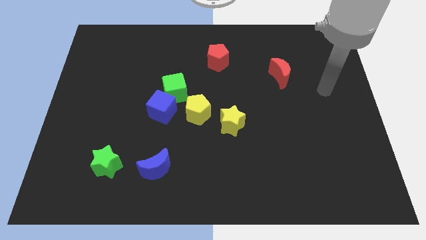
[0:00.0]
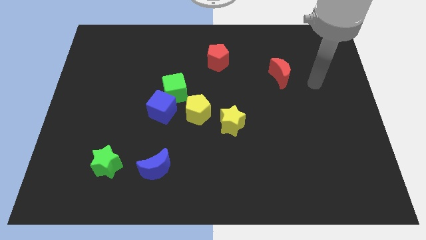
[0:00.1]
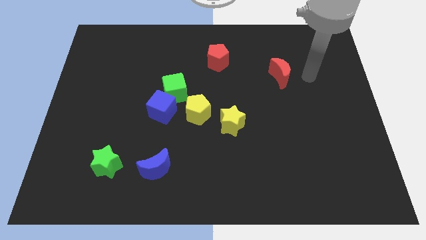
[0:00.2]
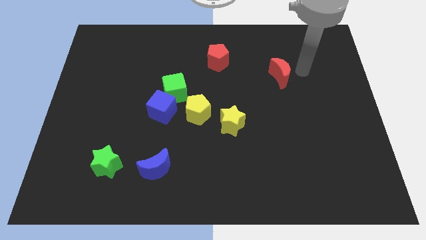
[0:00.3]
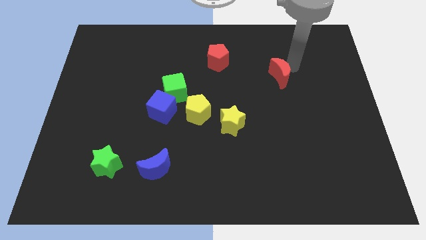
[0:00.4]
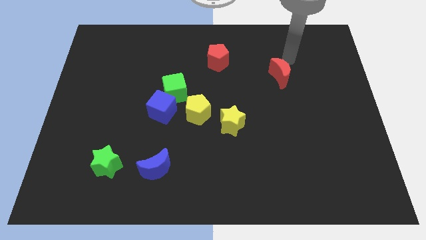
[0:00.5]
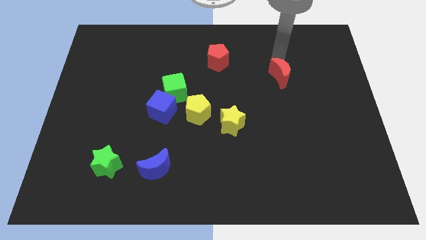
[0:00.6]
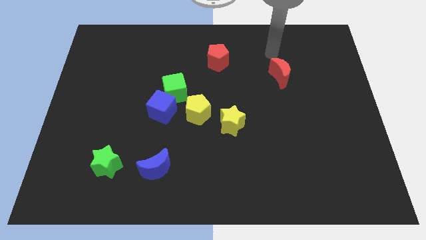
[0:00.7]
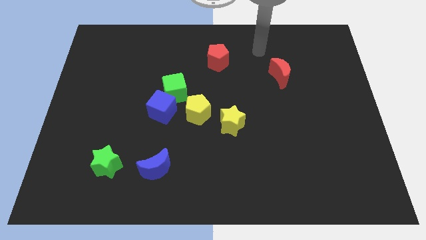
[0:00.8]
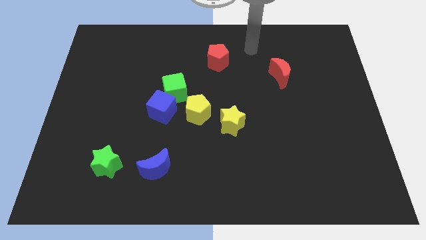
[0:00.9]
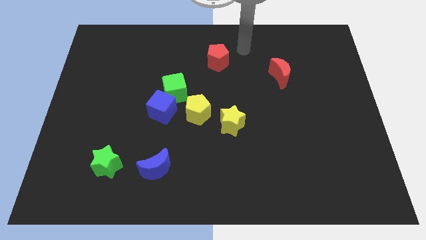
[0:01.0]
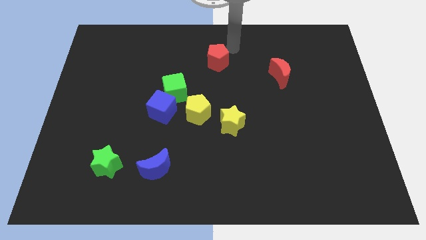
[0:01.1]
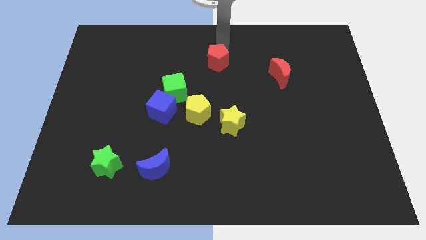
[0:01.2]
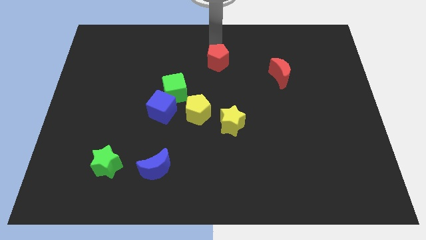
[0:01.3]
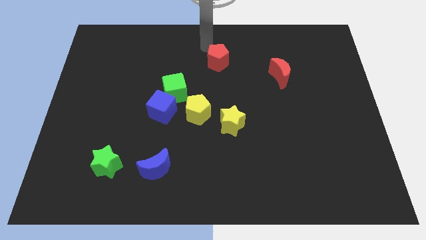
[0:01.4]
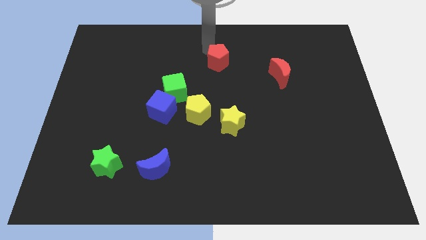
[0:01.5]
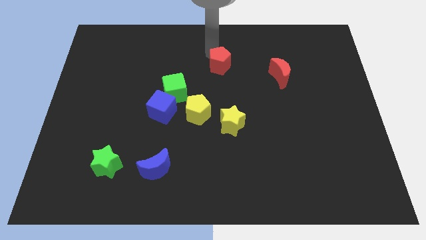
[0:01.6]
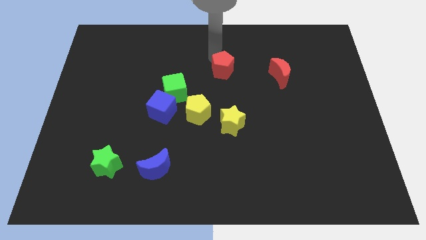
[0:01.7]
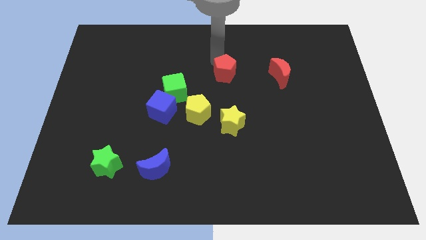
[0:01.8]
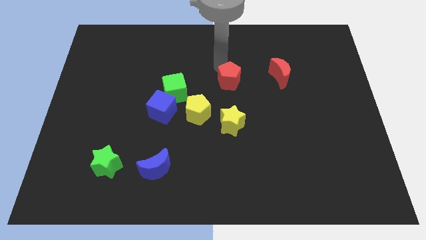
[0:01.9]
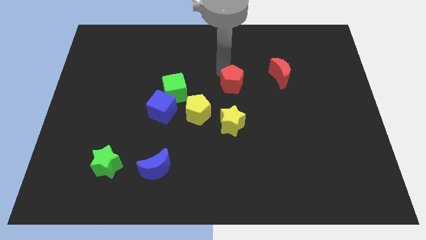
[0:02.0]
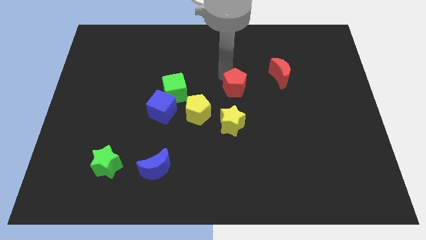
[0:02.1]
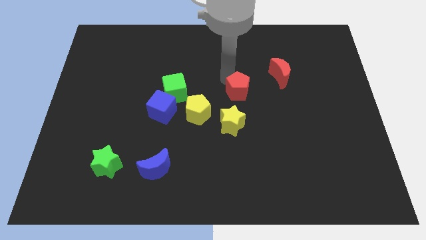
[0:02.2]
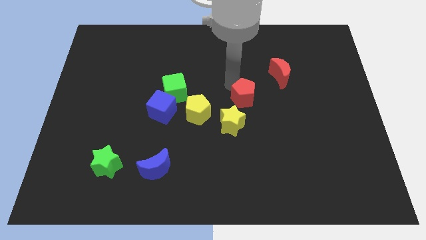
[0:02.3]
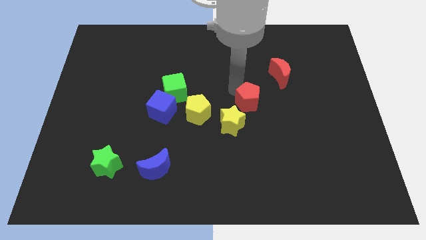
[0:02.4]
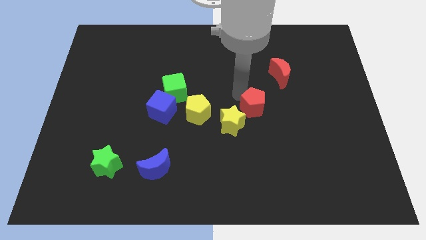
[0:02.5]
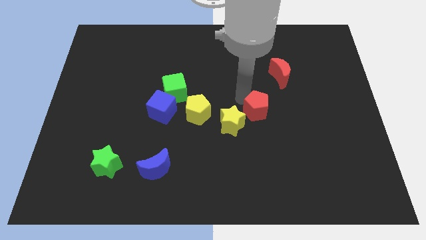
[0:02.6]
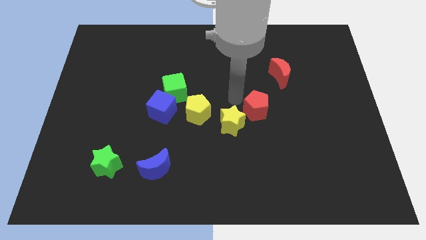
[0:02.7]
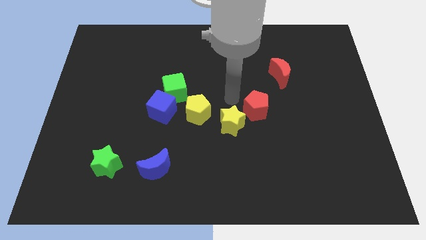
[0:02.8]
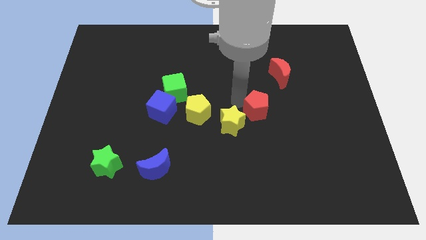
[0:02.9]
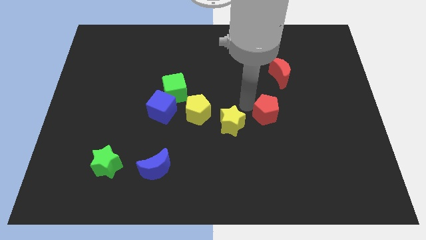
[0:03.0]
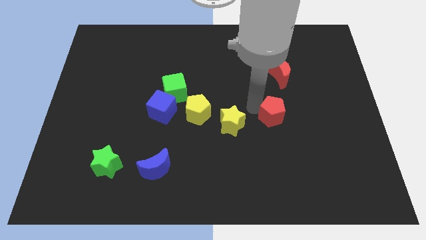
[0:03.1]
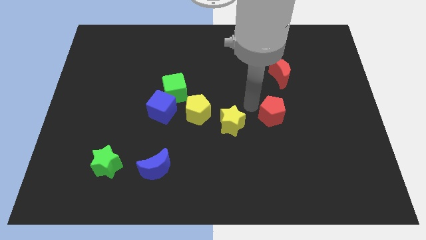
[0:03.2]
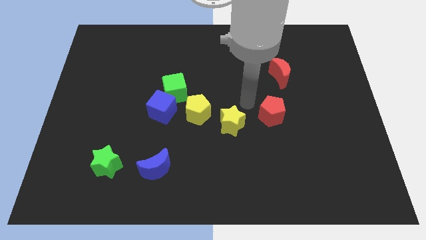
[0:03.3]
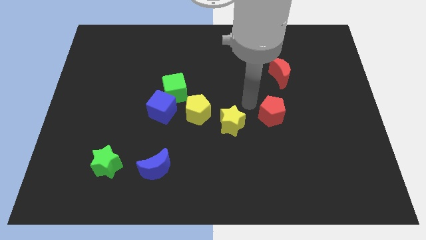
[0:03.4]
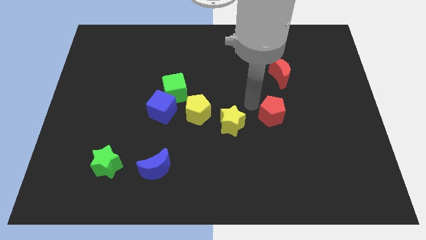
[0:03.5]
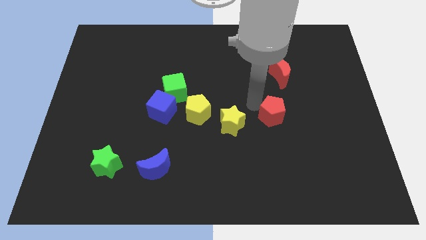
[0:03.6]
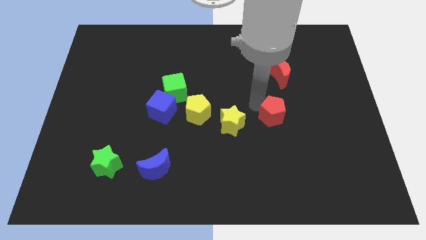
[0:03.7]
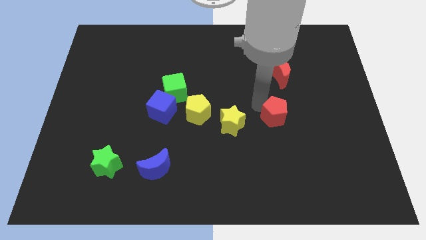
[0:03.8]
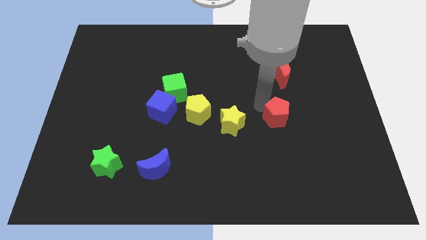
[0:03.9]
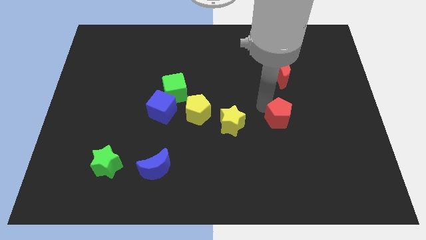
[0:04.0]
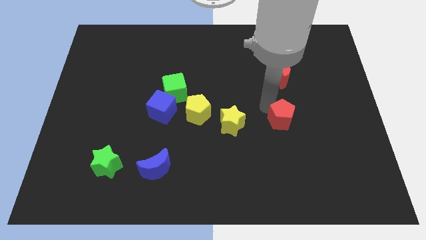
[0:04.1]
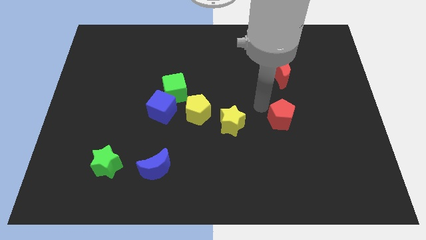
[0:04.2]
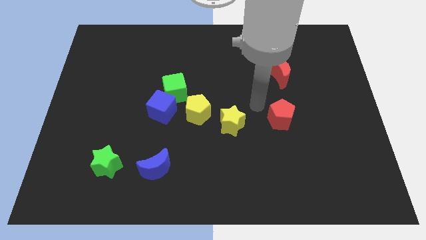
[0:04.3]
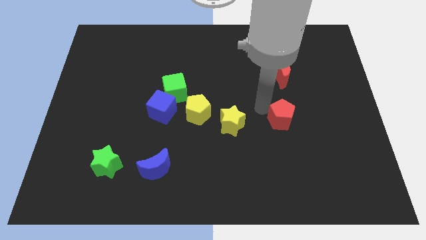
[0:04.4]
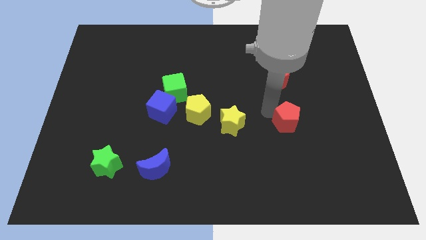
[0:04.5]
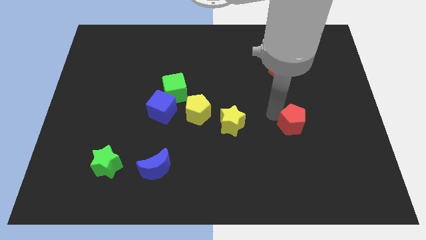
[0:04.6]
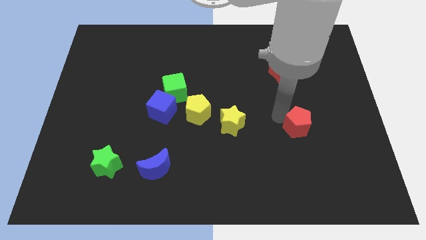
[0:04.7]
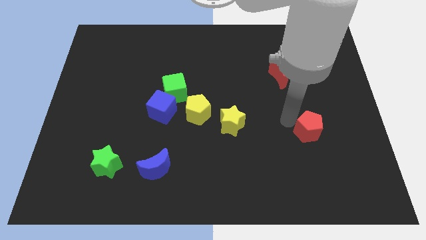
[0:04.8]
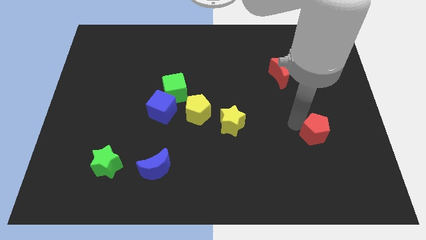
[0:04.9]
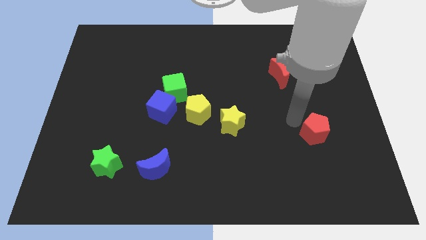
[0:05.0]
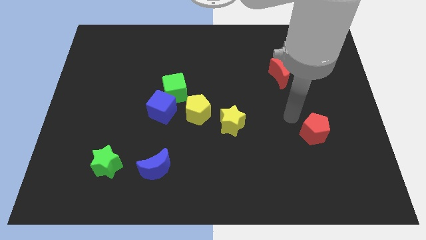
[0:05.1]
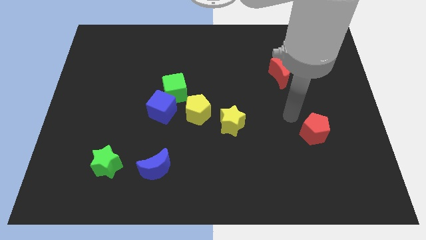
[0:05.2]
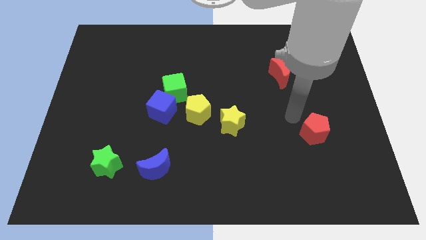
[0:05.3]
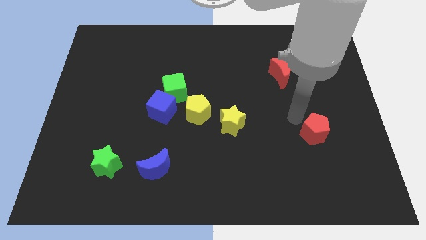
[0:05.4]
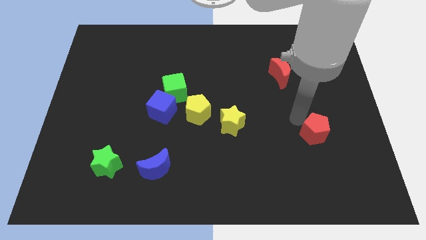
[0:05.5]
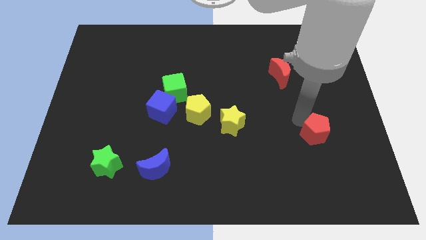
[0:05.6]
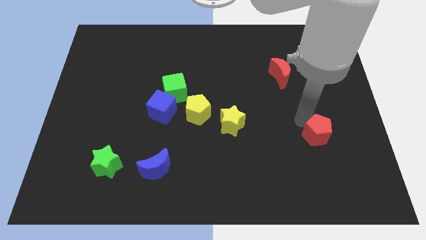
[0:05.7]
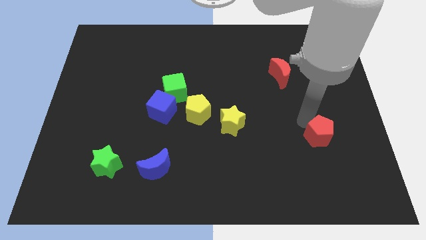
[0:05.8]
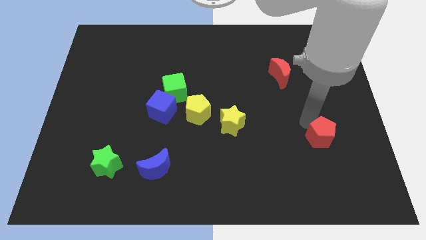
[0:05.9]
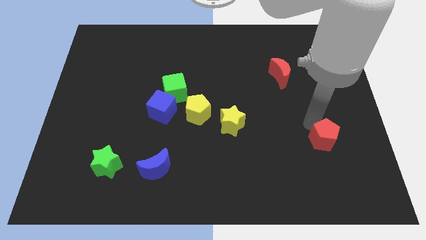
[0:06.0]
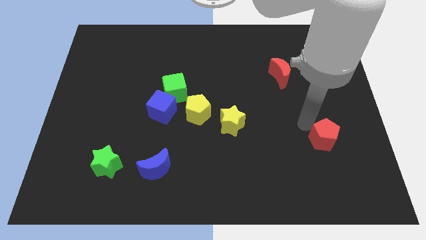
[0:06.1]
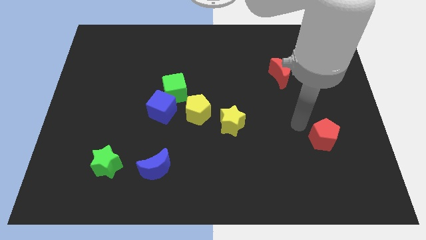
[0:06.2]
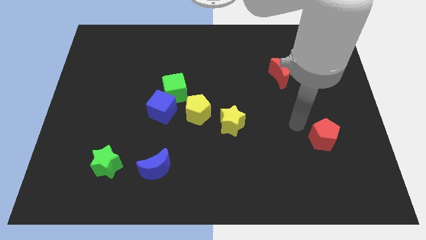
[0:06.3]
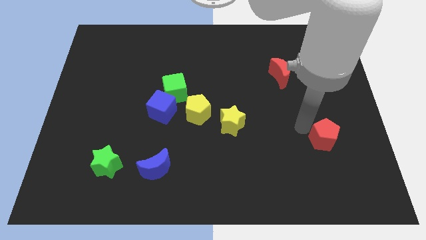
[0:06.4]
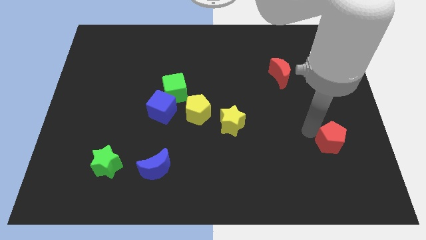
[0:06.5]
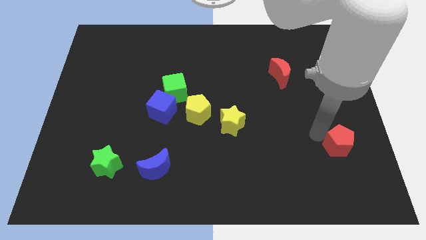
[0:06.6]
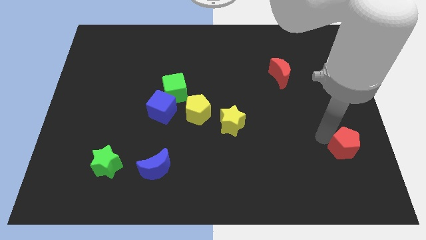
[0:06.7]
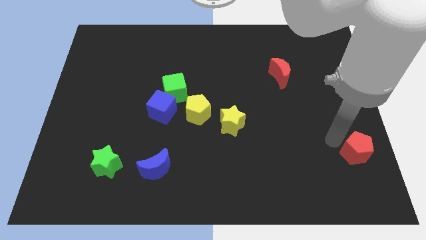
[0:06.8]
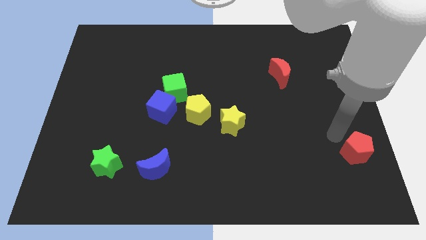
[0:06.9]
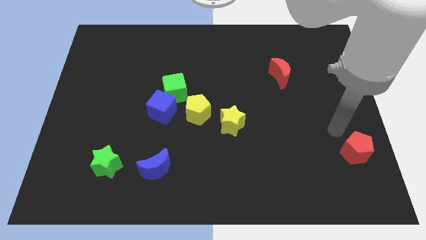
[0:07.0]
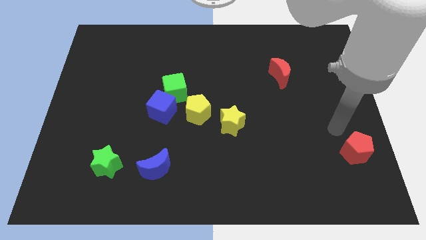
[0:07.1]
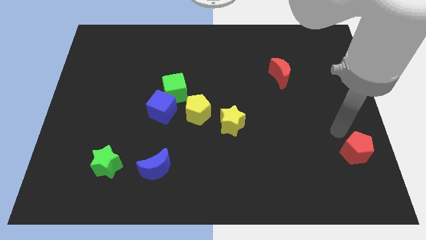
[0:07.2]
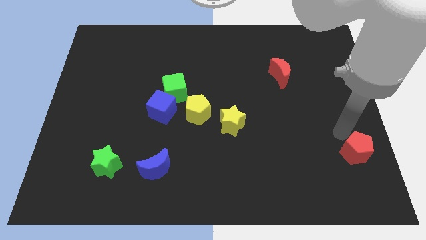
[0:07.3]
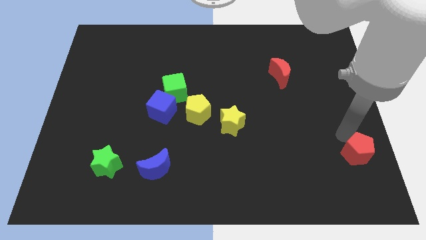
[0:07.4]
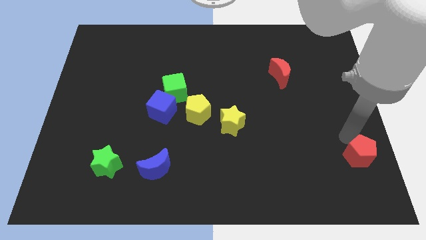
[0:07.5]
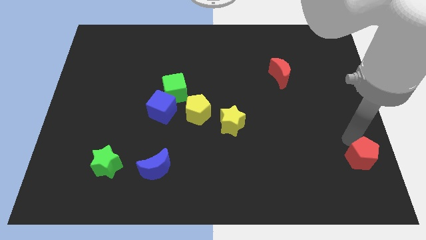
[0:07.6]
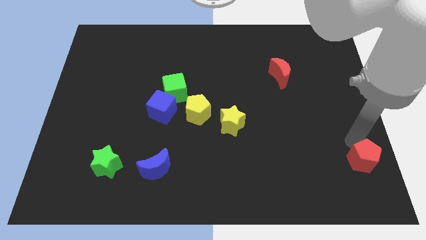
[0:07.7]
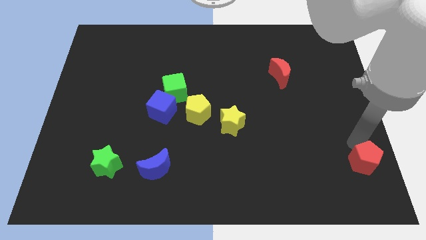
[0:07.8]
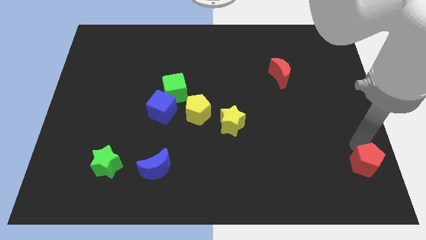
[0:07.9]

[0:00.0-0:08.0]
put the red pentagon to the bottom right corner
